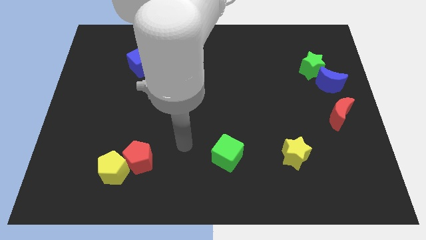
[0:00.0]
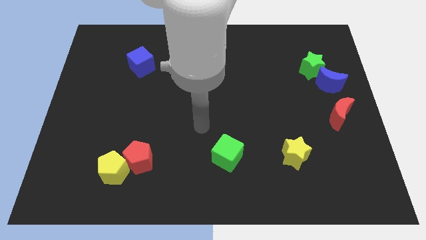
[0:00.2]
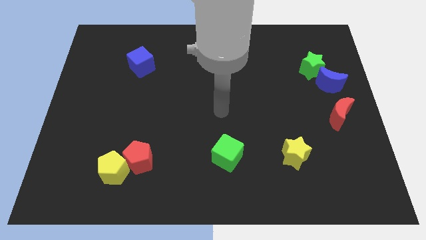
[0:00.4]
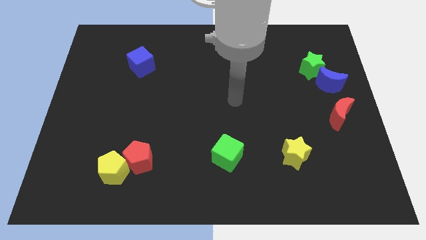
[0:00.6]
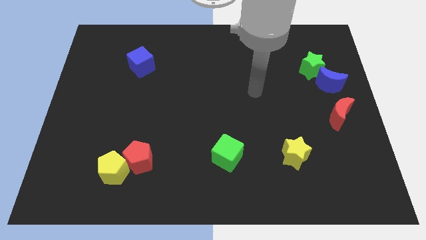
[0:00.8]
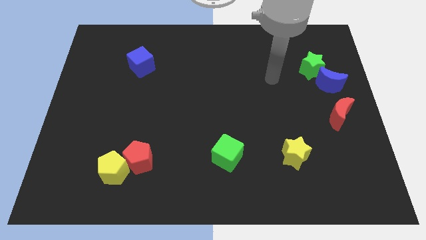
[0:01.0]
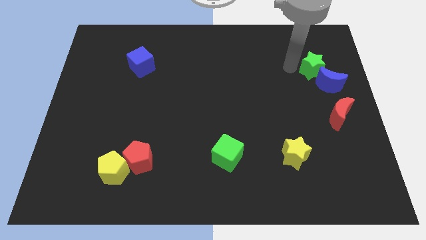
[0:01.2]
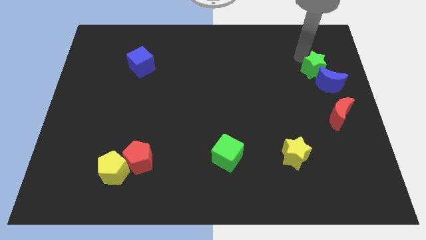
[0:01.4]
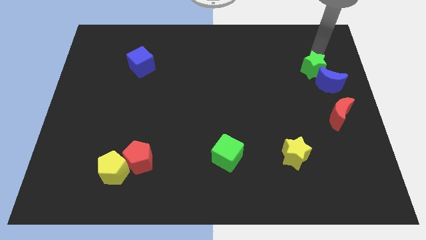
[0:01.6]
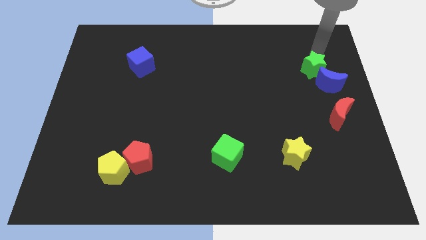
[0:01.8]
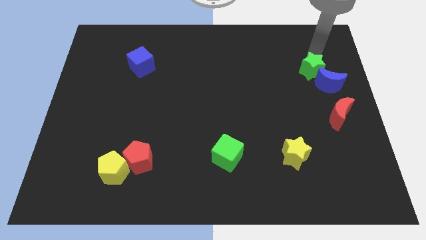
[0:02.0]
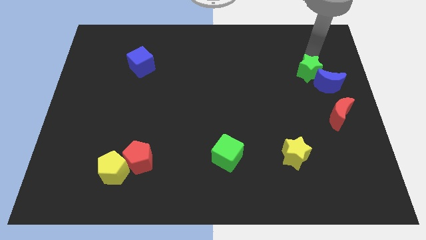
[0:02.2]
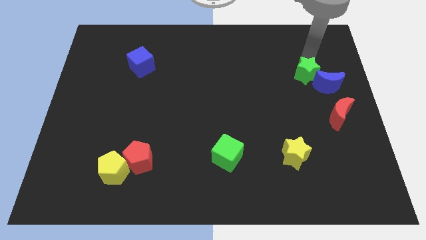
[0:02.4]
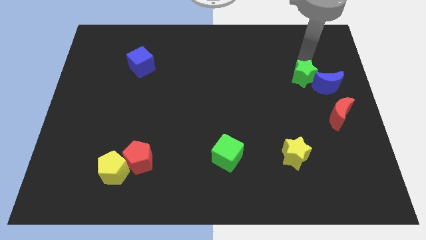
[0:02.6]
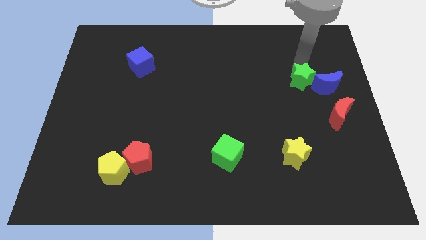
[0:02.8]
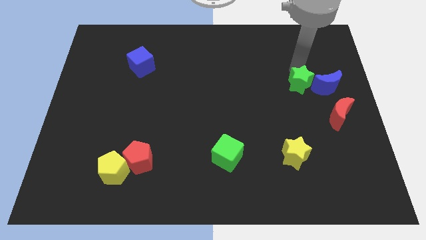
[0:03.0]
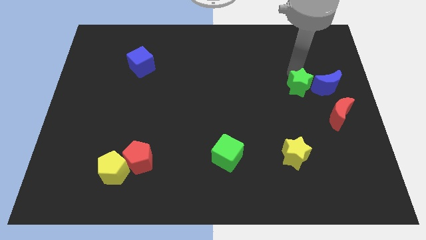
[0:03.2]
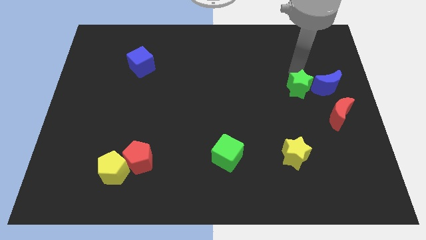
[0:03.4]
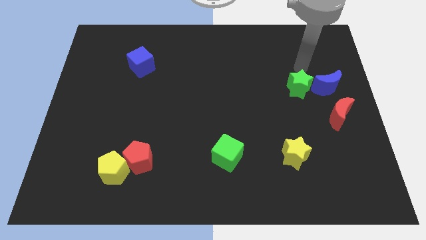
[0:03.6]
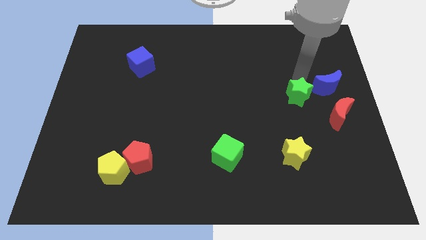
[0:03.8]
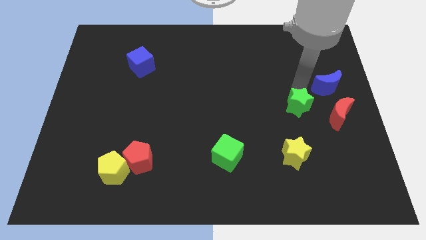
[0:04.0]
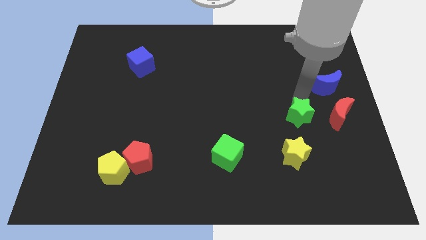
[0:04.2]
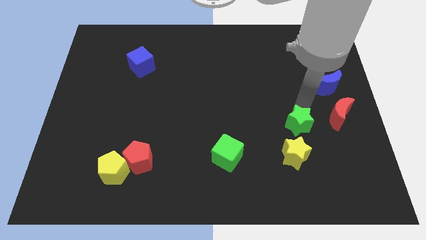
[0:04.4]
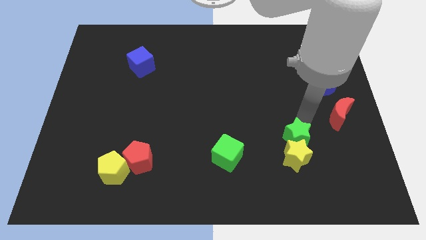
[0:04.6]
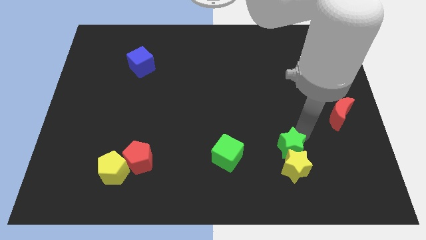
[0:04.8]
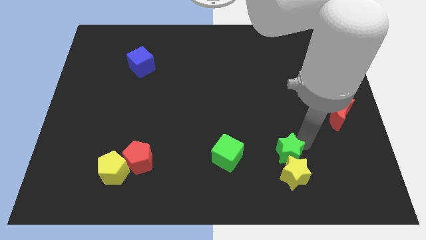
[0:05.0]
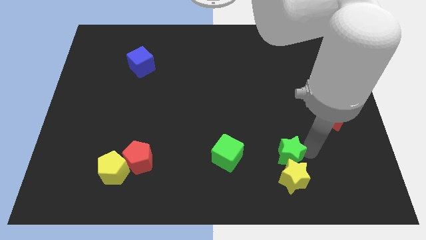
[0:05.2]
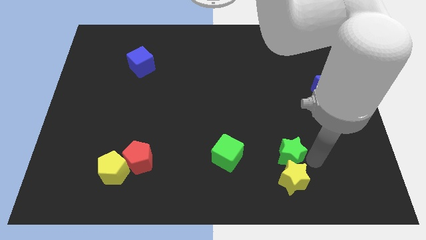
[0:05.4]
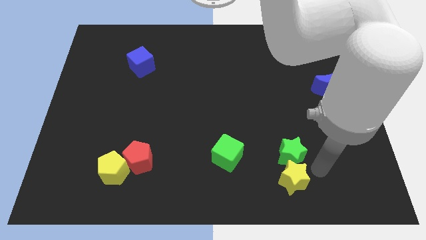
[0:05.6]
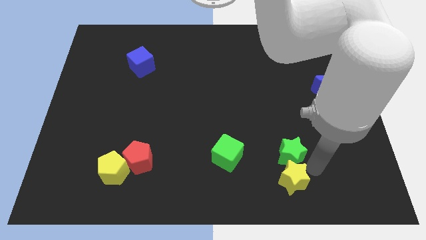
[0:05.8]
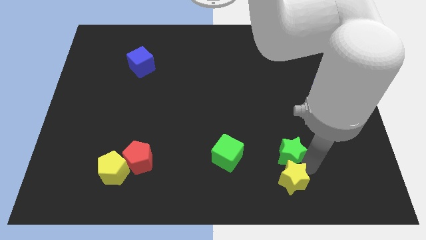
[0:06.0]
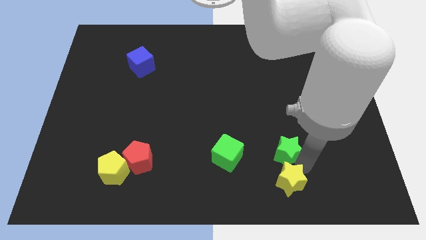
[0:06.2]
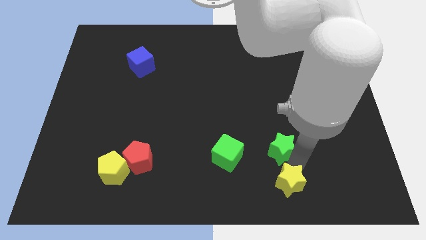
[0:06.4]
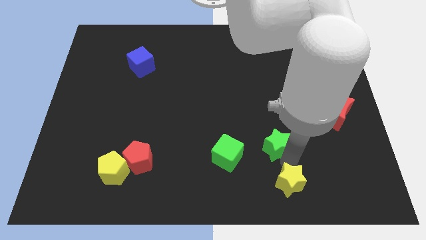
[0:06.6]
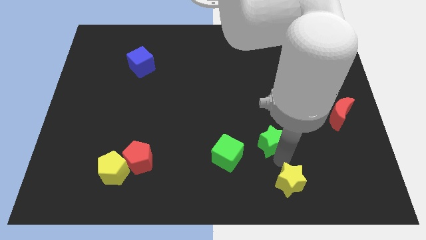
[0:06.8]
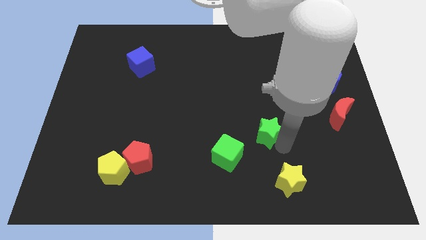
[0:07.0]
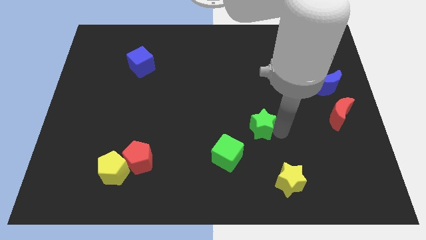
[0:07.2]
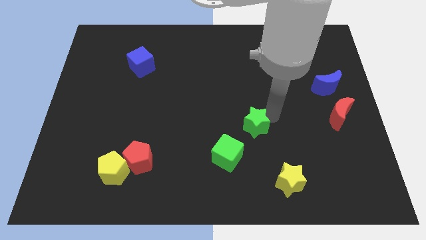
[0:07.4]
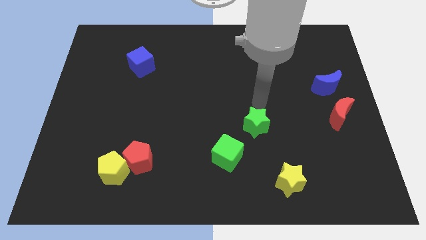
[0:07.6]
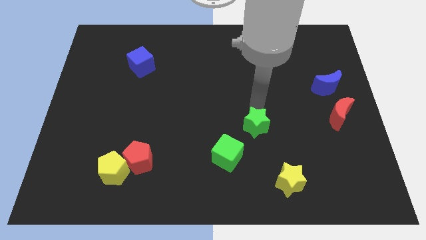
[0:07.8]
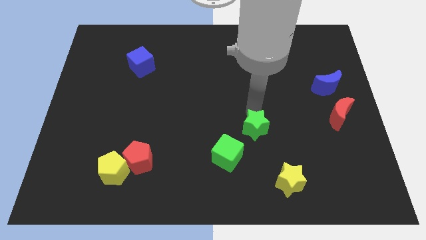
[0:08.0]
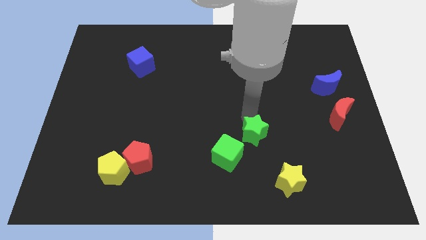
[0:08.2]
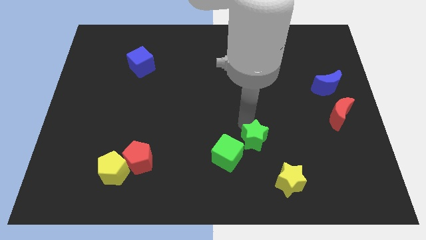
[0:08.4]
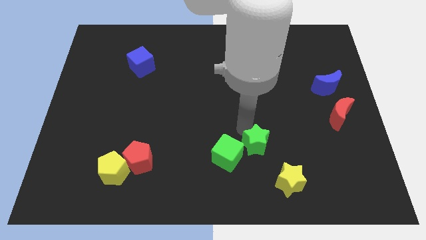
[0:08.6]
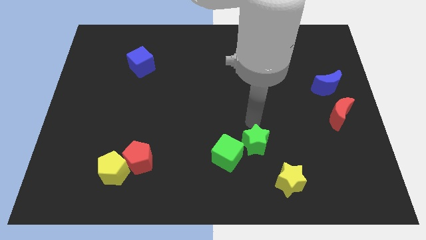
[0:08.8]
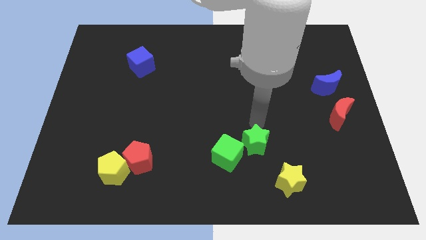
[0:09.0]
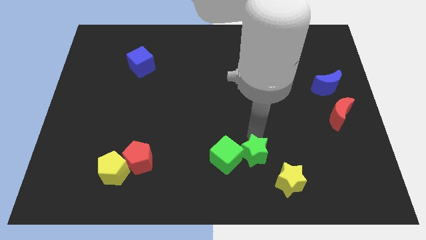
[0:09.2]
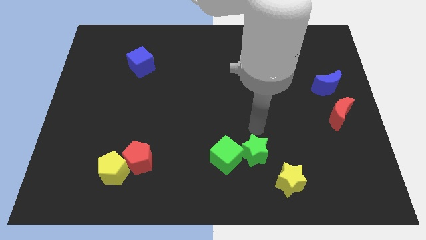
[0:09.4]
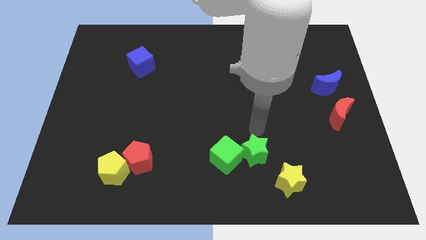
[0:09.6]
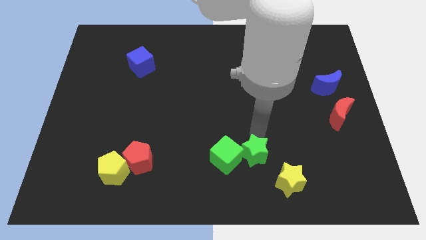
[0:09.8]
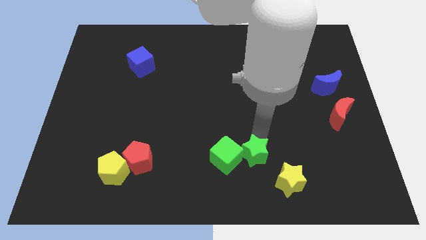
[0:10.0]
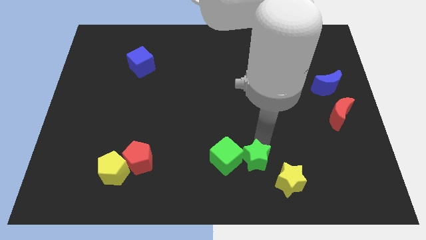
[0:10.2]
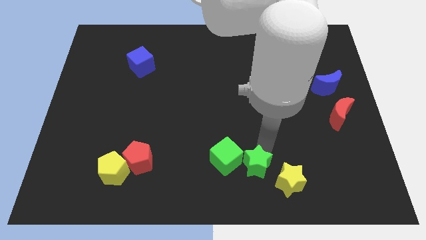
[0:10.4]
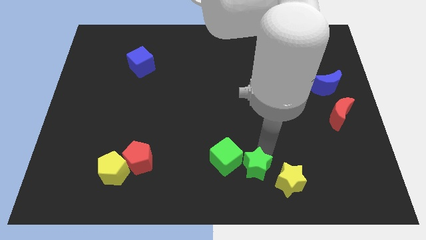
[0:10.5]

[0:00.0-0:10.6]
push the green star to the bottom

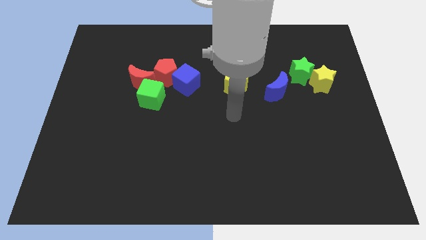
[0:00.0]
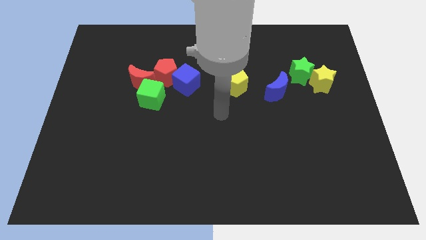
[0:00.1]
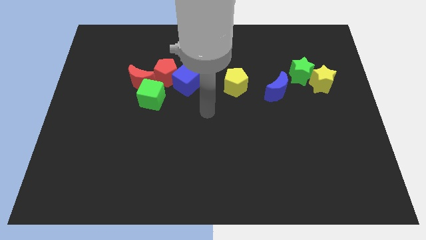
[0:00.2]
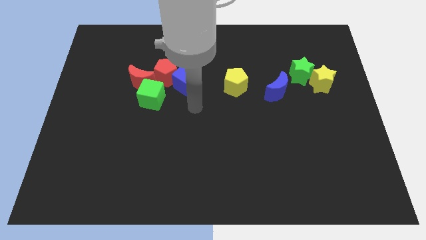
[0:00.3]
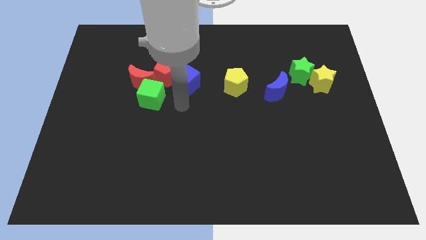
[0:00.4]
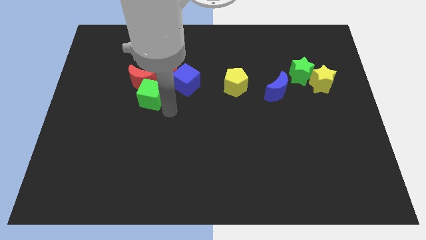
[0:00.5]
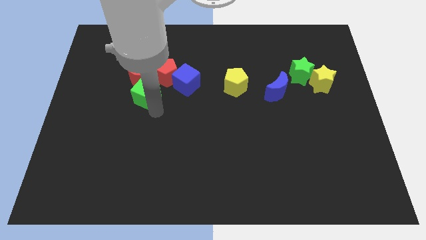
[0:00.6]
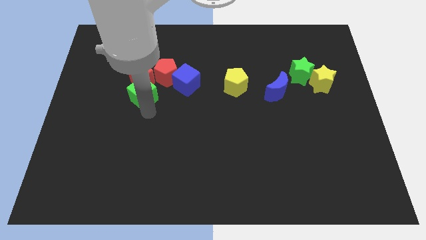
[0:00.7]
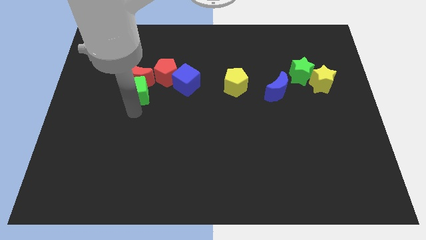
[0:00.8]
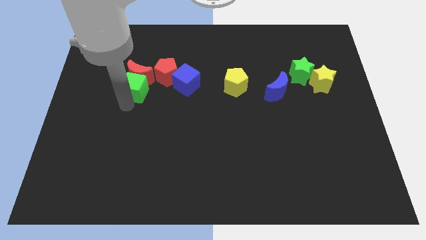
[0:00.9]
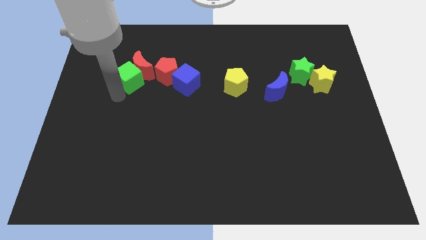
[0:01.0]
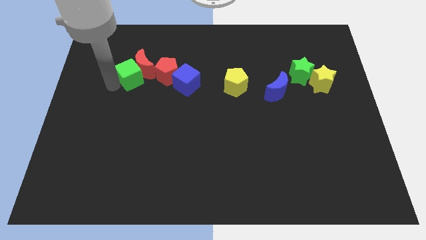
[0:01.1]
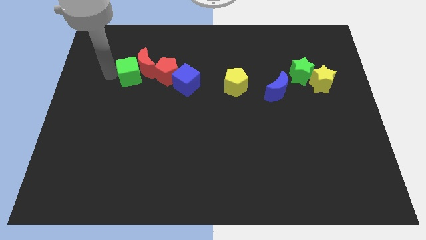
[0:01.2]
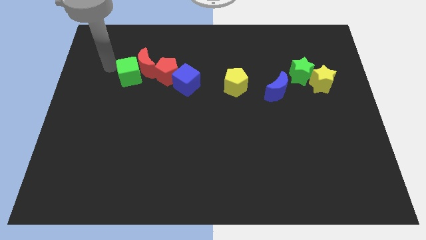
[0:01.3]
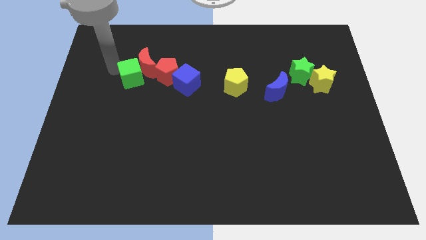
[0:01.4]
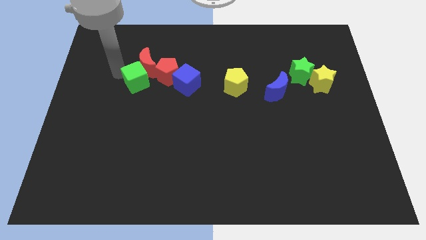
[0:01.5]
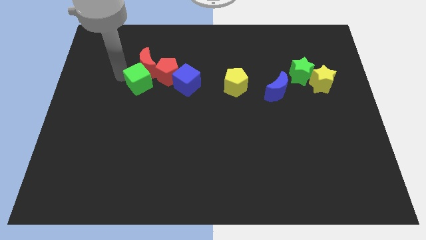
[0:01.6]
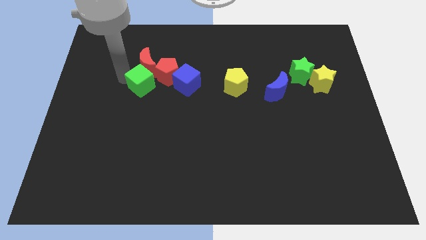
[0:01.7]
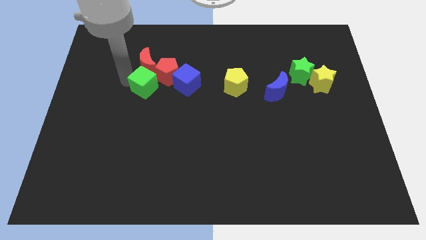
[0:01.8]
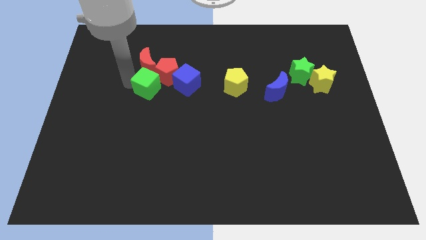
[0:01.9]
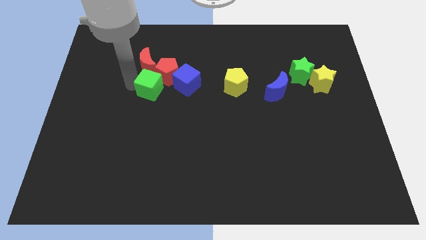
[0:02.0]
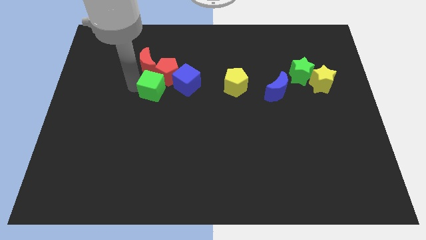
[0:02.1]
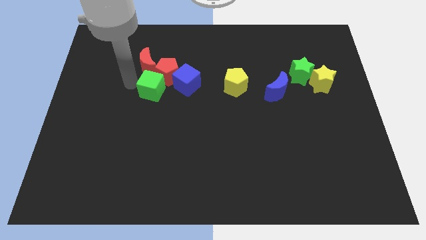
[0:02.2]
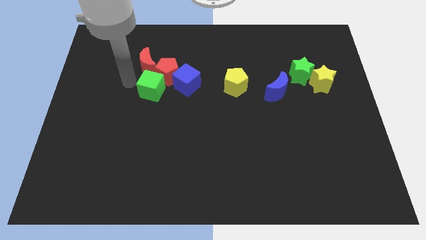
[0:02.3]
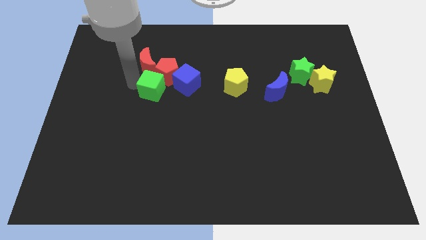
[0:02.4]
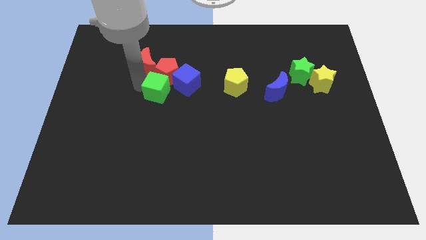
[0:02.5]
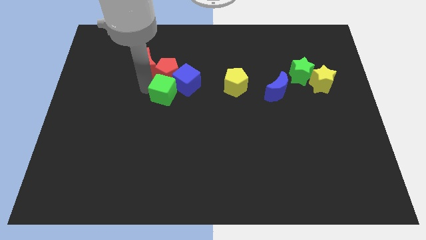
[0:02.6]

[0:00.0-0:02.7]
push the green cube to the center
